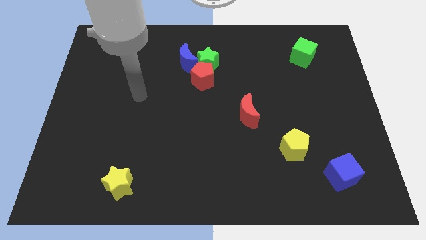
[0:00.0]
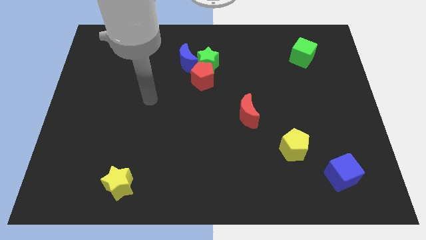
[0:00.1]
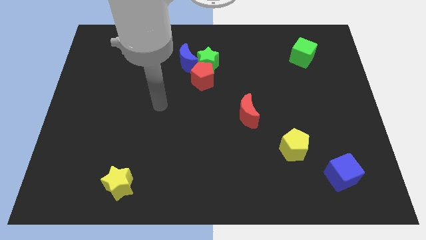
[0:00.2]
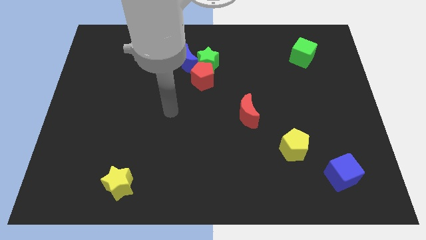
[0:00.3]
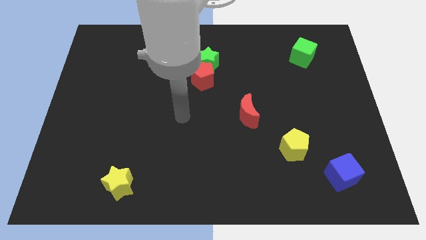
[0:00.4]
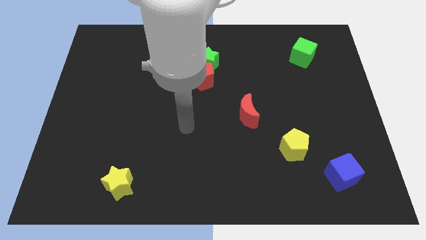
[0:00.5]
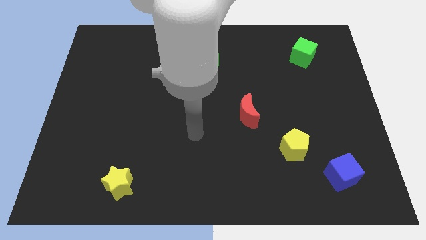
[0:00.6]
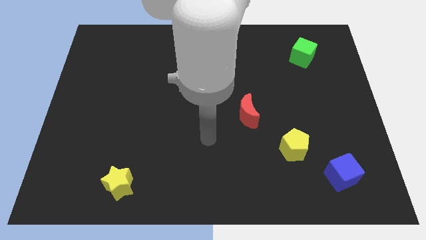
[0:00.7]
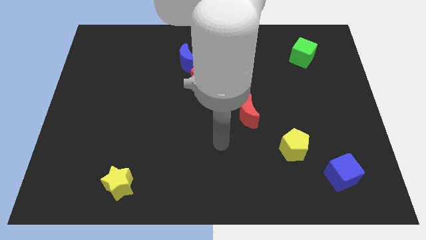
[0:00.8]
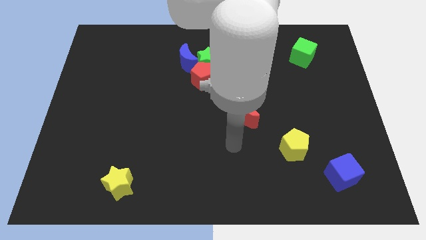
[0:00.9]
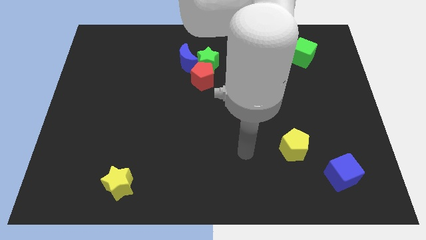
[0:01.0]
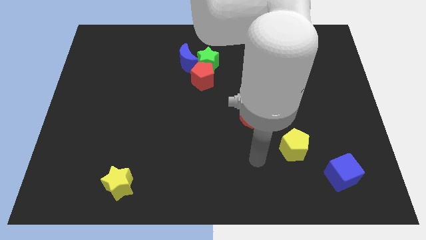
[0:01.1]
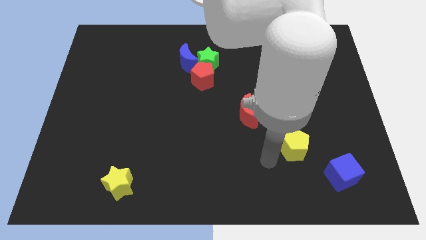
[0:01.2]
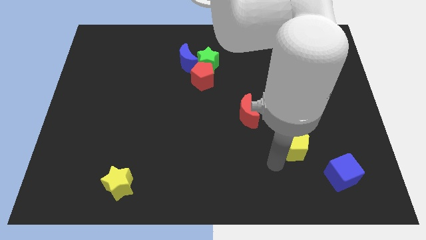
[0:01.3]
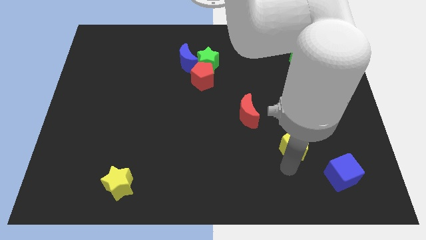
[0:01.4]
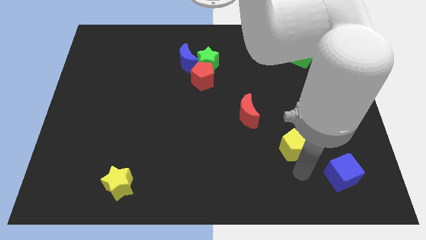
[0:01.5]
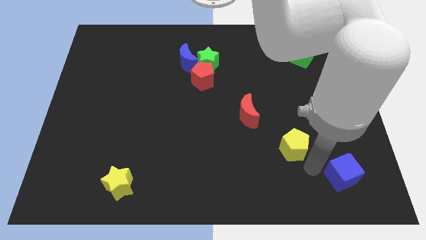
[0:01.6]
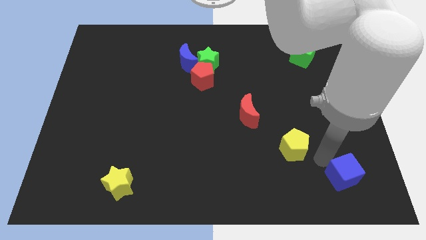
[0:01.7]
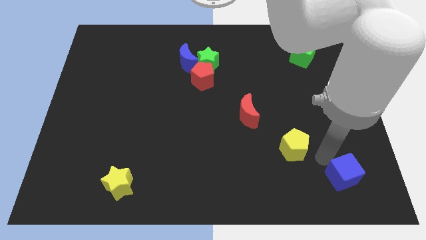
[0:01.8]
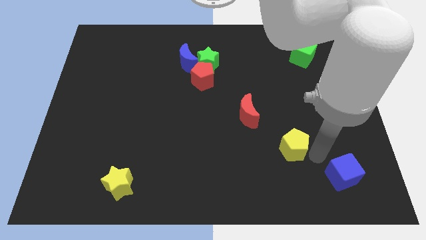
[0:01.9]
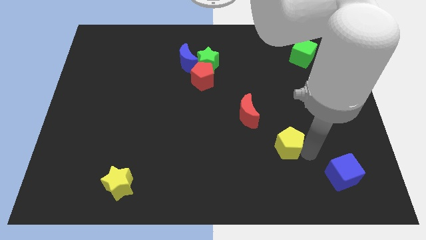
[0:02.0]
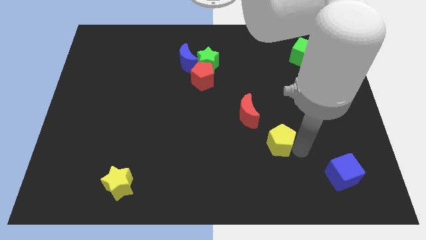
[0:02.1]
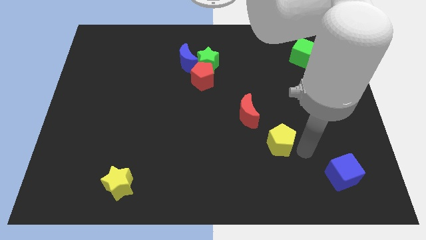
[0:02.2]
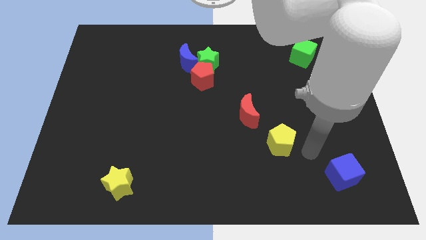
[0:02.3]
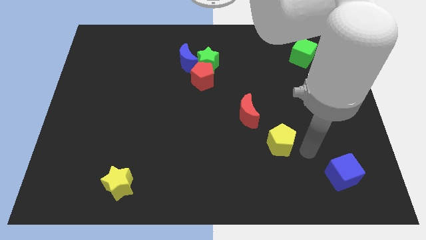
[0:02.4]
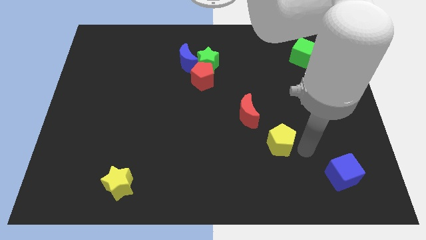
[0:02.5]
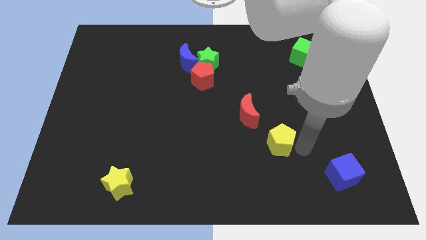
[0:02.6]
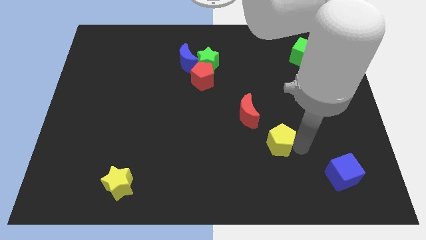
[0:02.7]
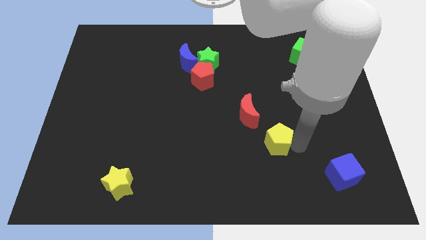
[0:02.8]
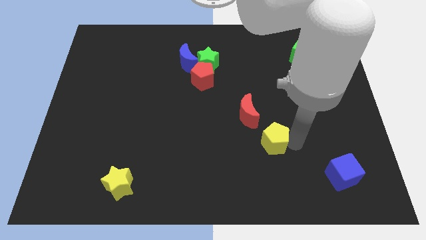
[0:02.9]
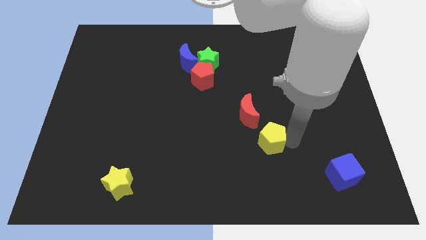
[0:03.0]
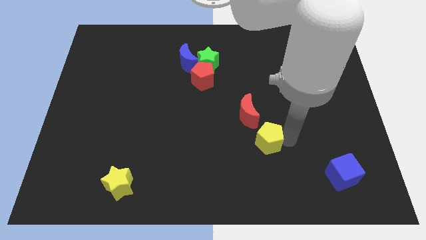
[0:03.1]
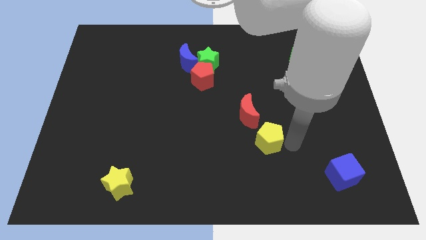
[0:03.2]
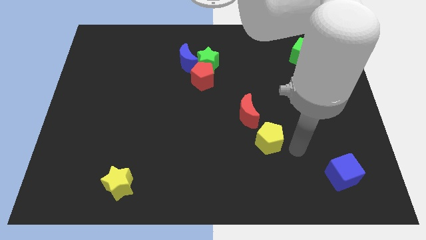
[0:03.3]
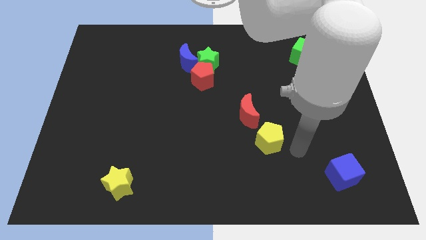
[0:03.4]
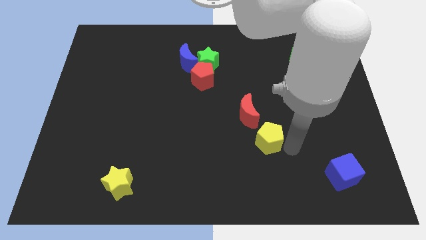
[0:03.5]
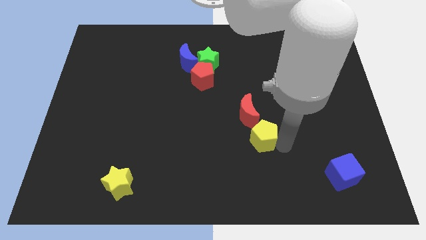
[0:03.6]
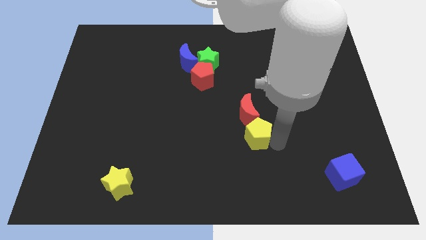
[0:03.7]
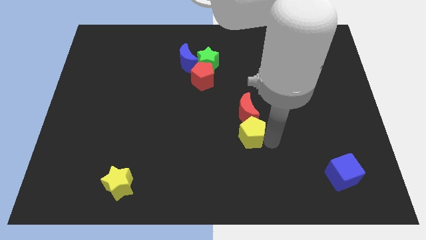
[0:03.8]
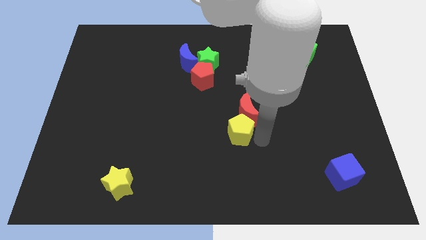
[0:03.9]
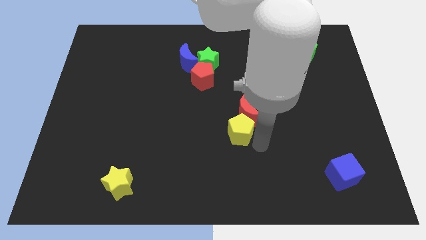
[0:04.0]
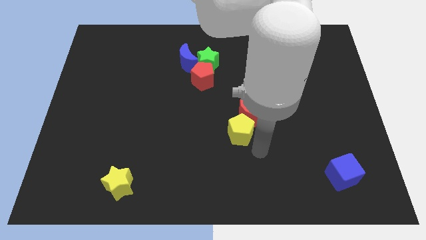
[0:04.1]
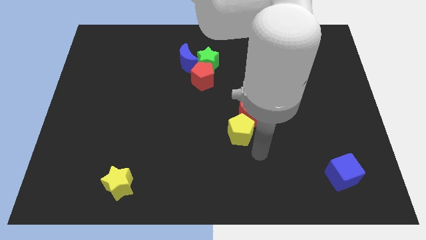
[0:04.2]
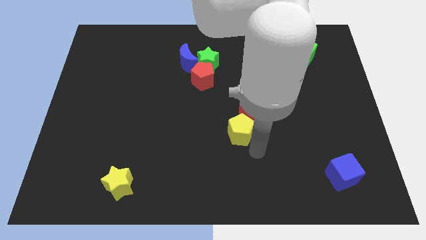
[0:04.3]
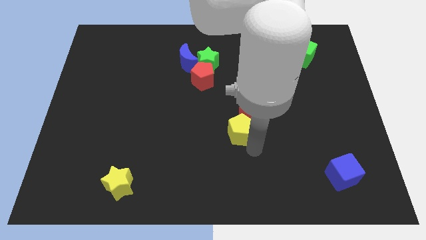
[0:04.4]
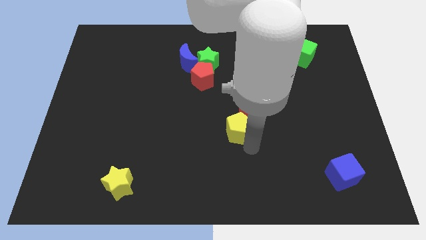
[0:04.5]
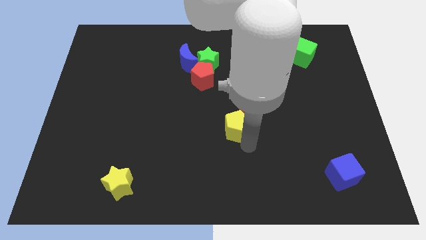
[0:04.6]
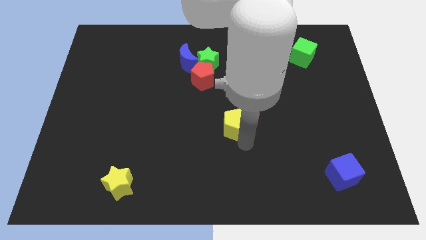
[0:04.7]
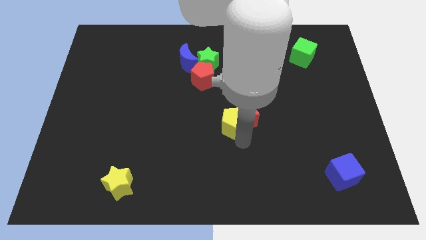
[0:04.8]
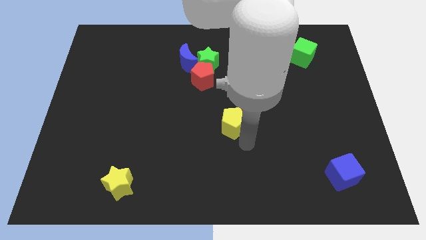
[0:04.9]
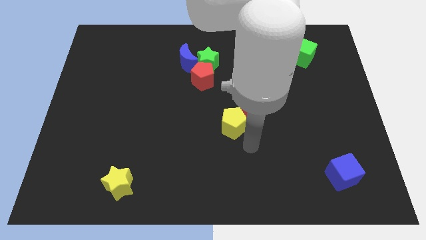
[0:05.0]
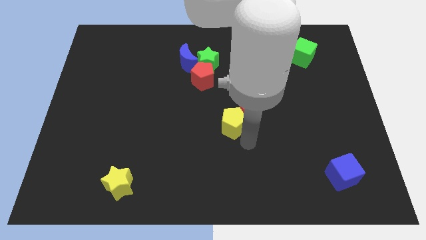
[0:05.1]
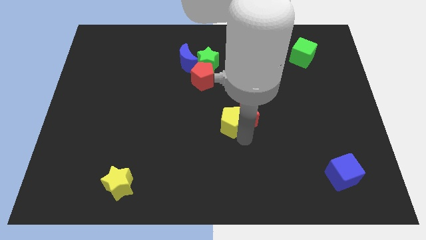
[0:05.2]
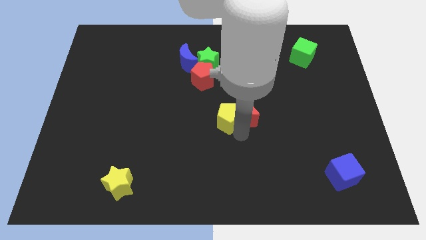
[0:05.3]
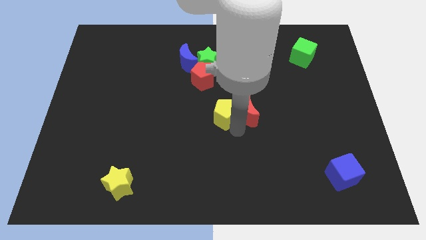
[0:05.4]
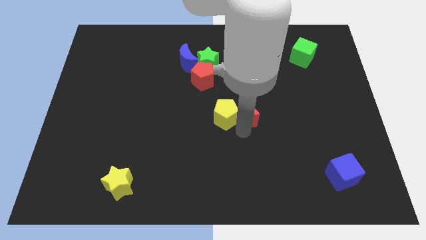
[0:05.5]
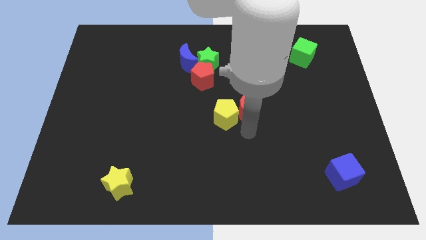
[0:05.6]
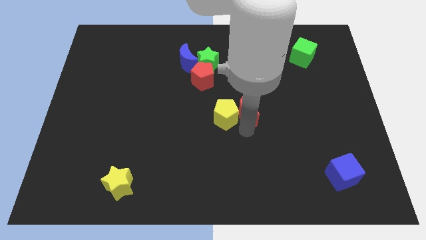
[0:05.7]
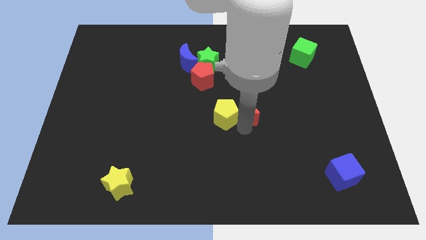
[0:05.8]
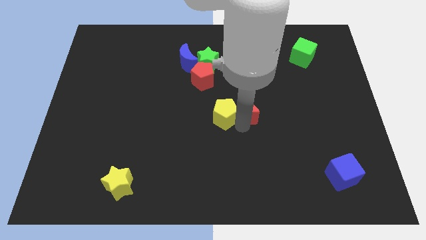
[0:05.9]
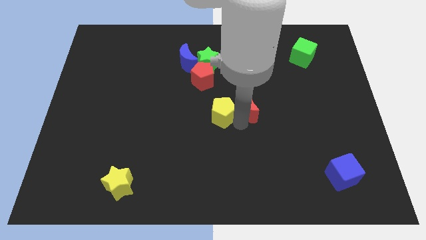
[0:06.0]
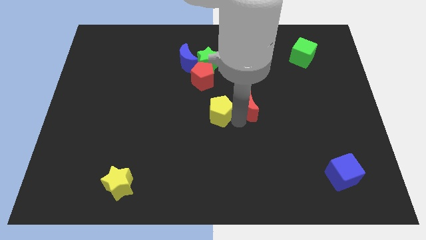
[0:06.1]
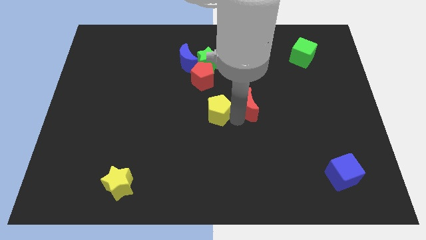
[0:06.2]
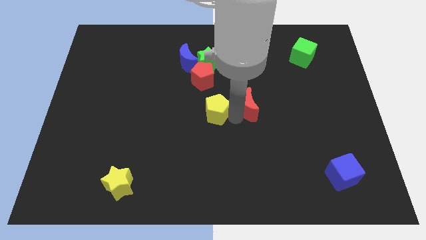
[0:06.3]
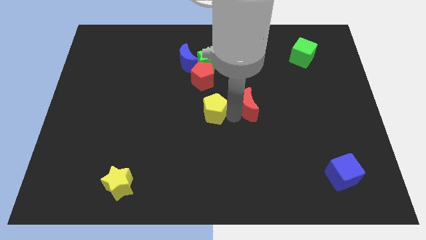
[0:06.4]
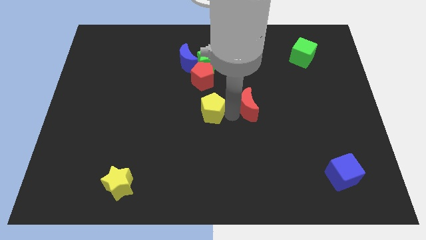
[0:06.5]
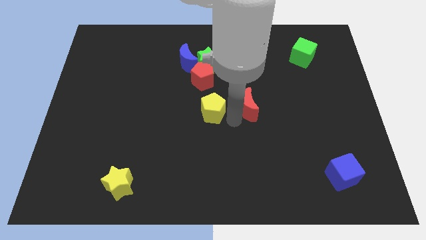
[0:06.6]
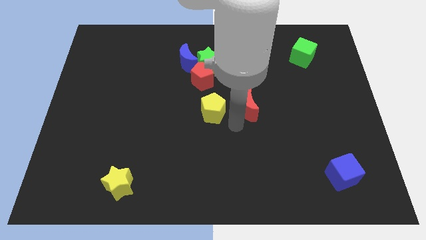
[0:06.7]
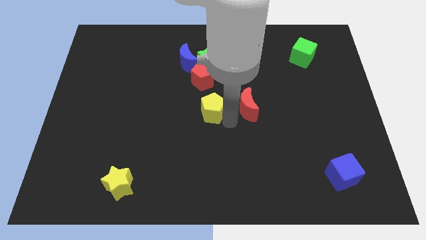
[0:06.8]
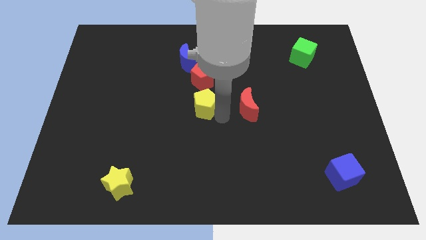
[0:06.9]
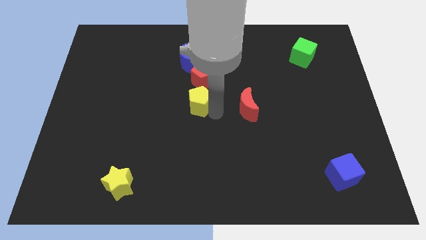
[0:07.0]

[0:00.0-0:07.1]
put the yellow pentagon below the blue moon
